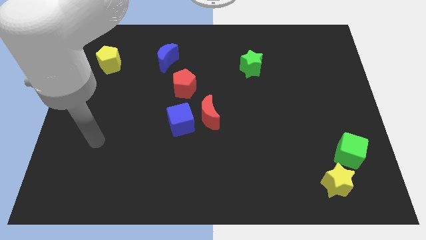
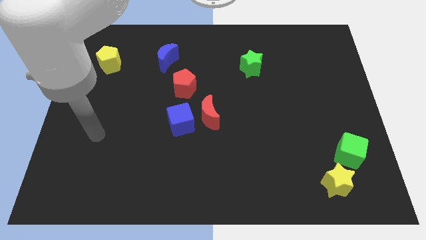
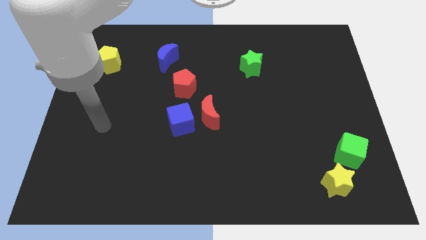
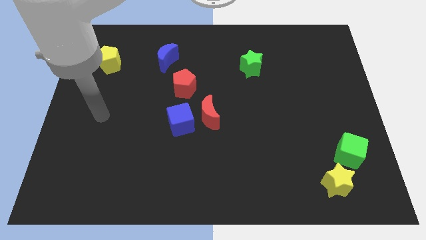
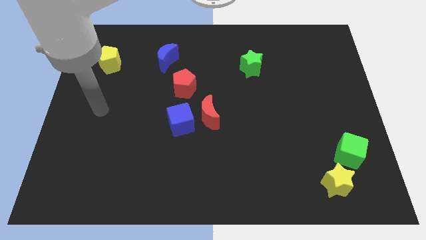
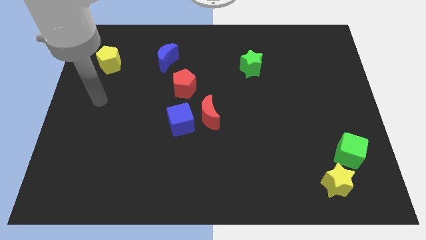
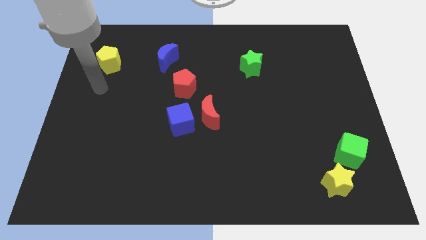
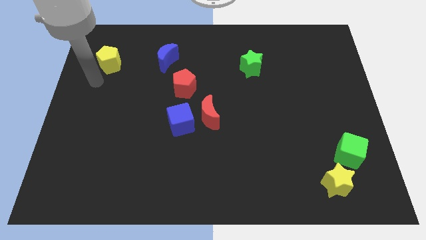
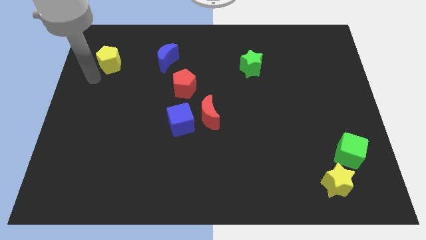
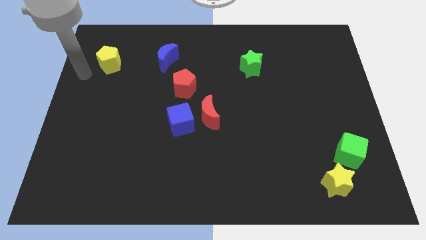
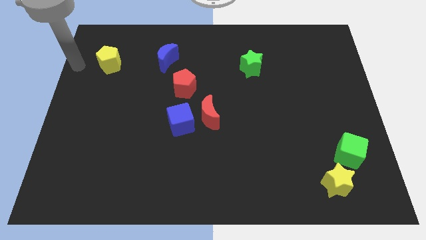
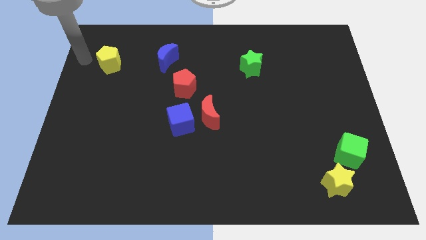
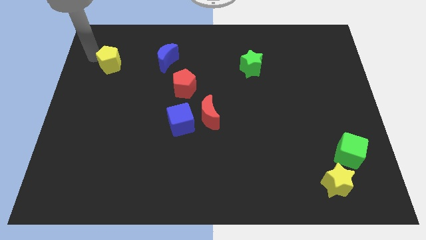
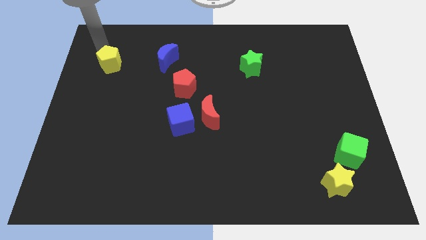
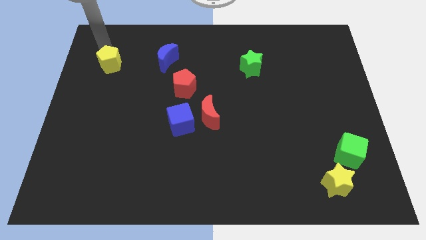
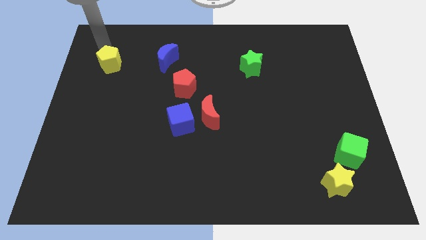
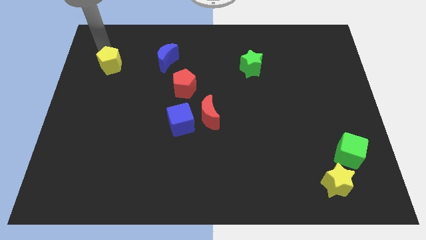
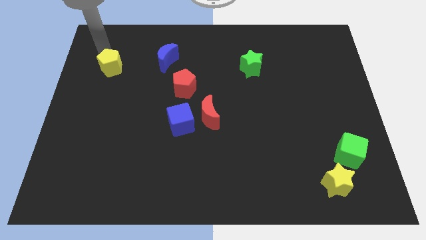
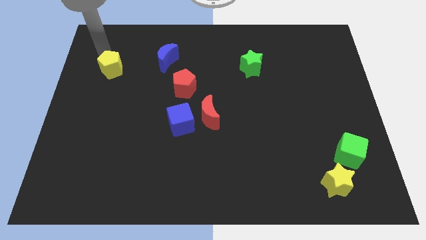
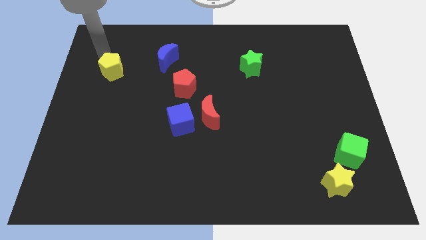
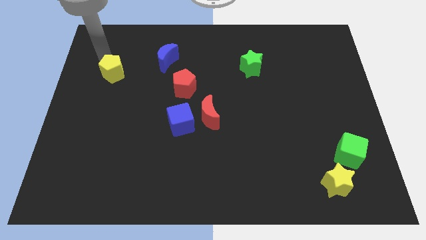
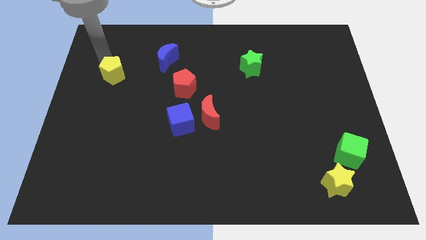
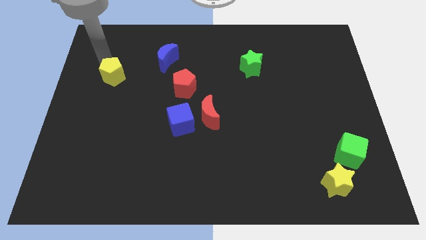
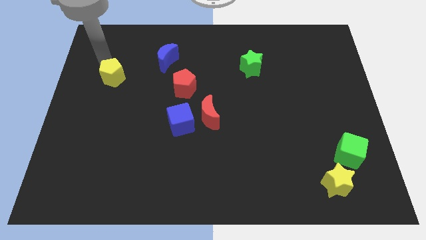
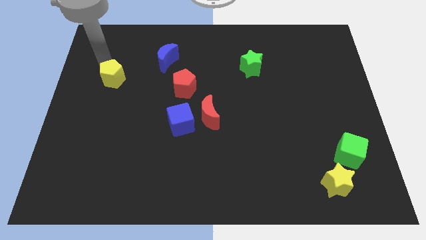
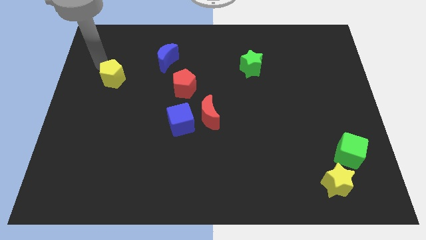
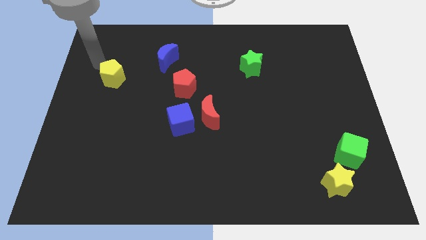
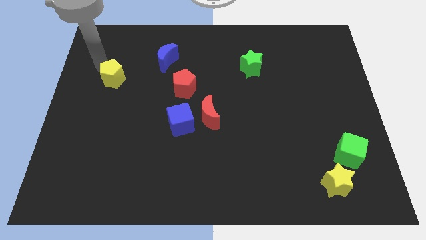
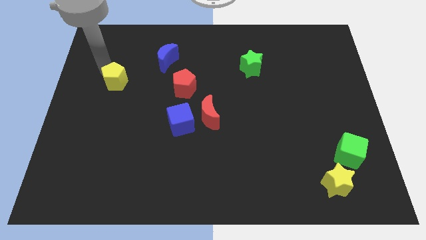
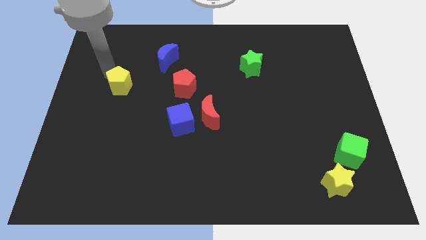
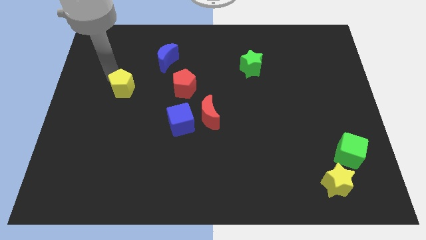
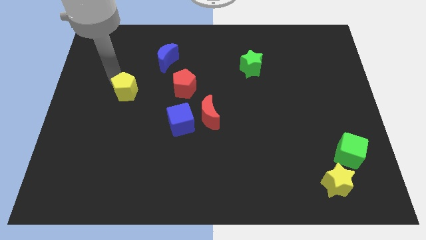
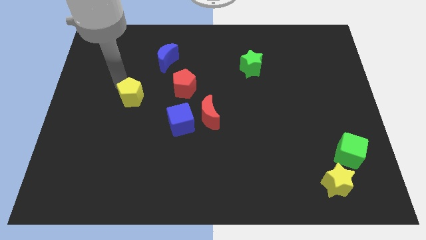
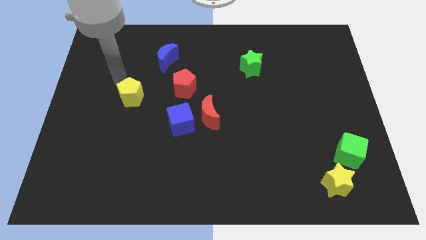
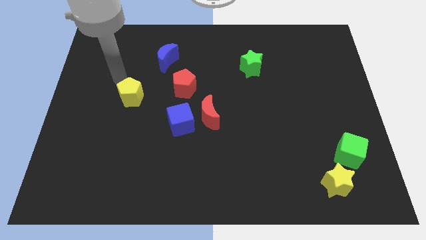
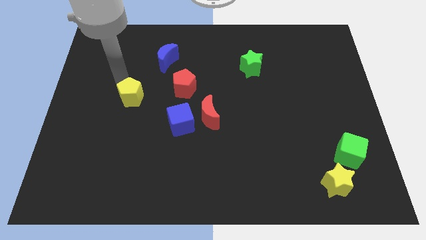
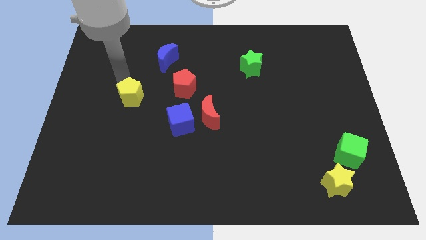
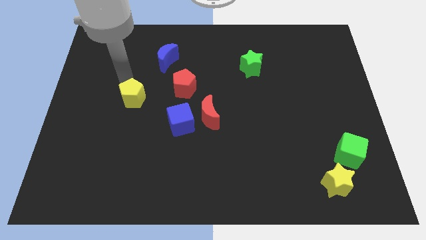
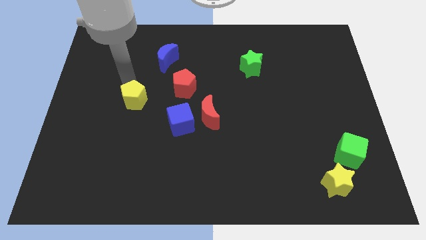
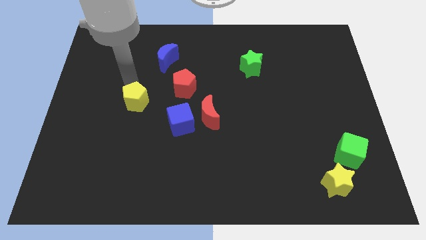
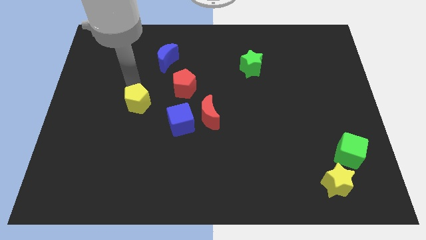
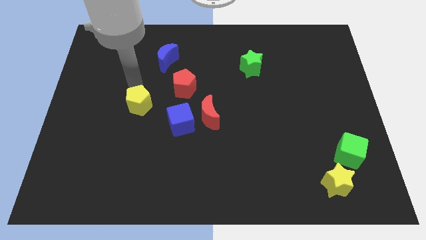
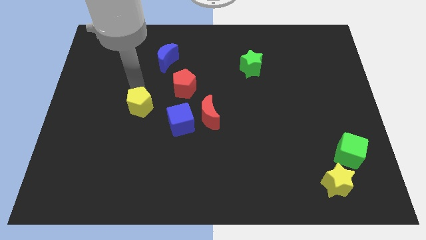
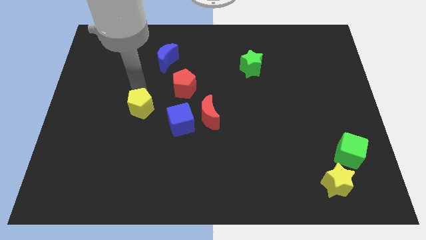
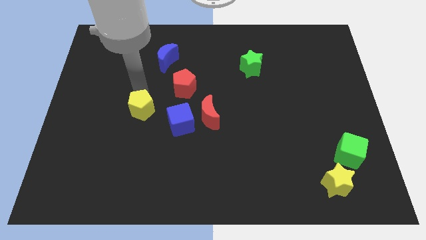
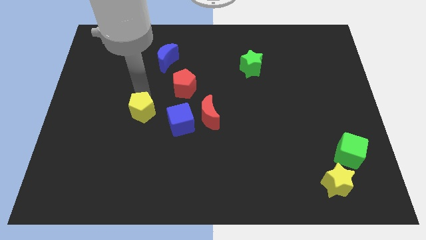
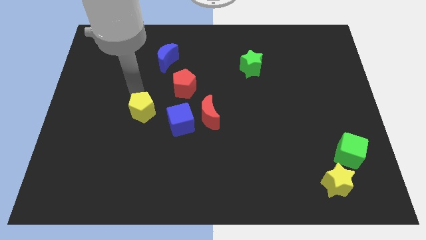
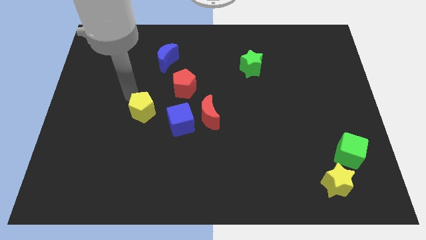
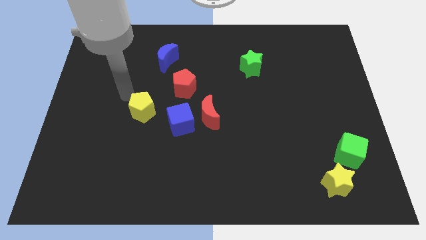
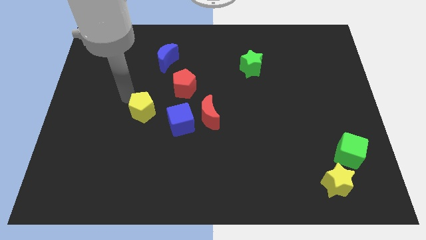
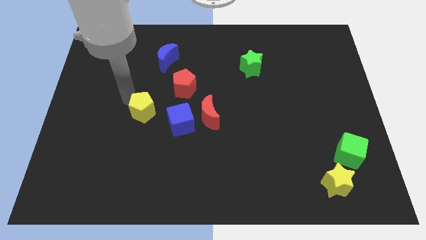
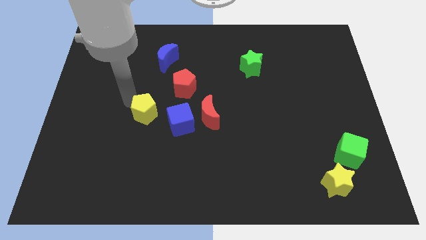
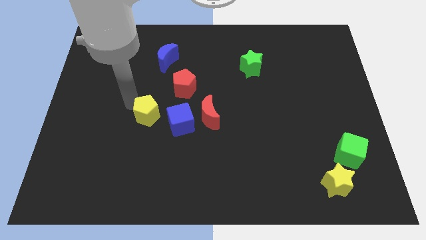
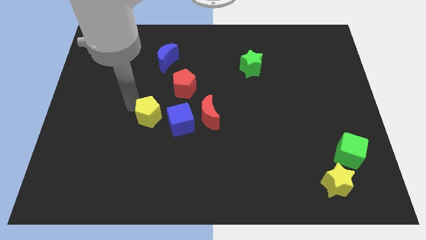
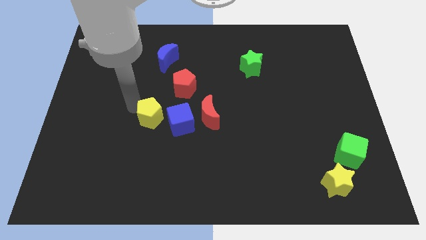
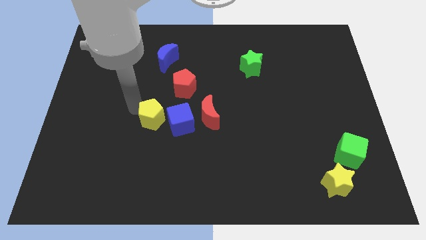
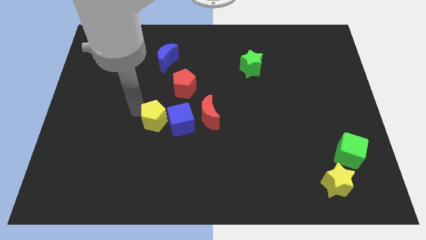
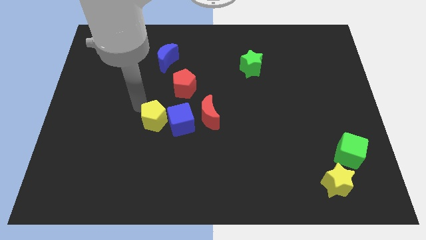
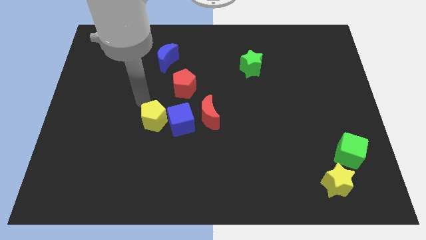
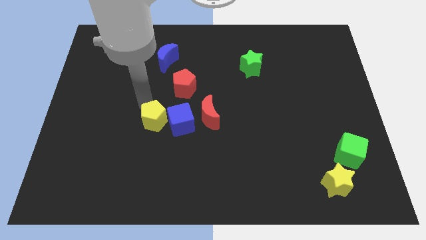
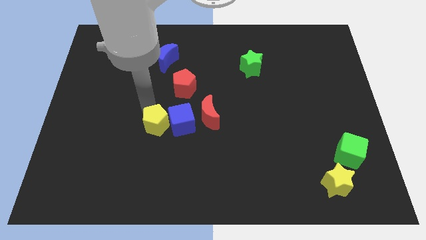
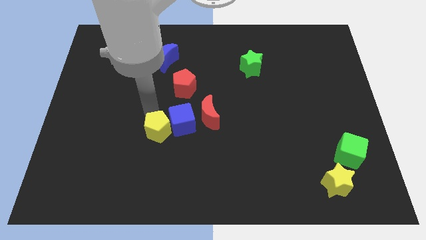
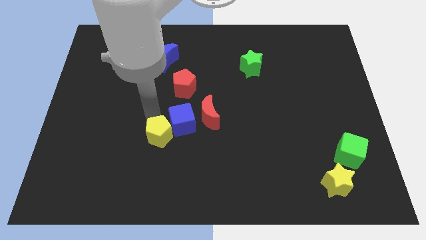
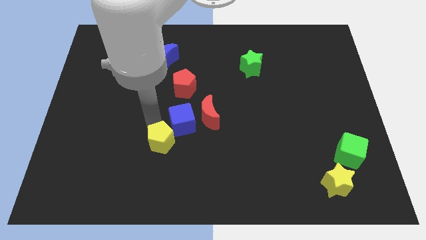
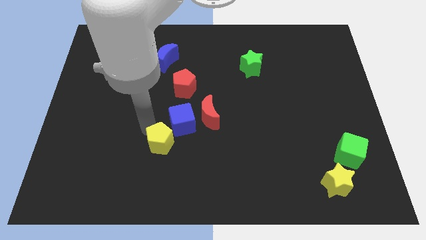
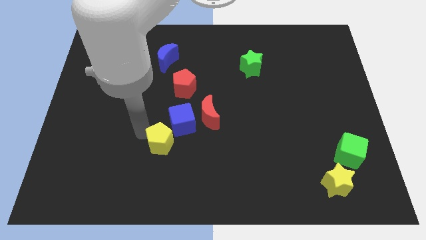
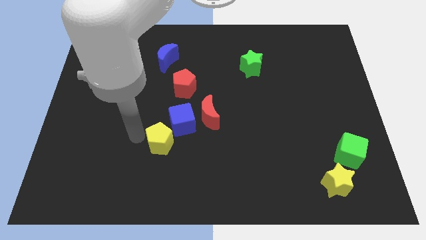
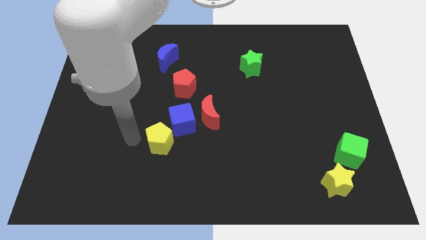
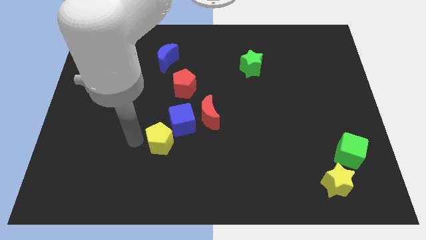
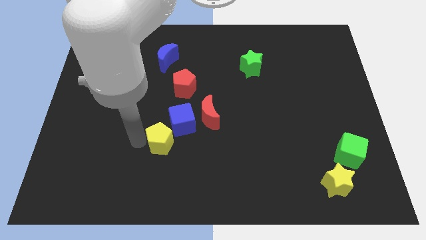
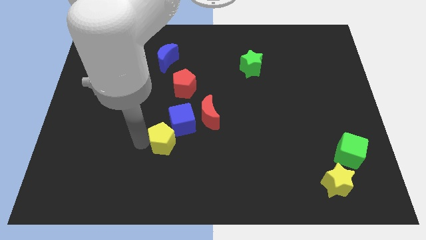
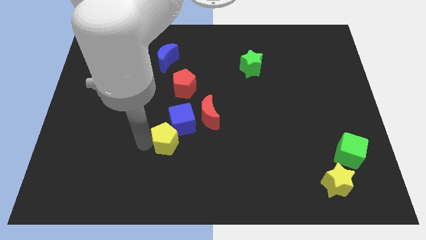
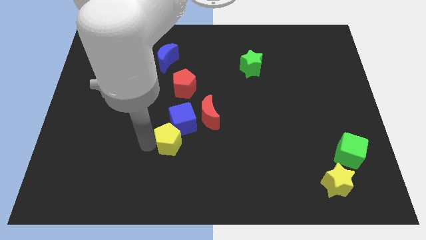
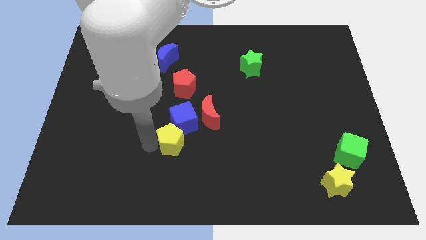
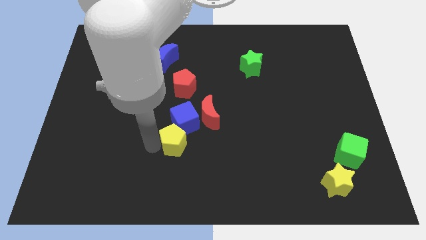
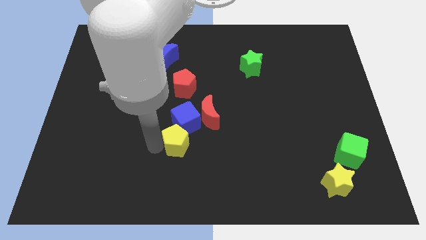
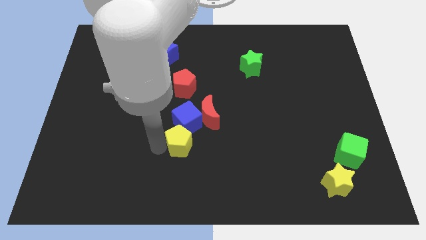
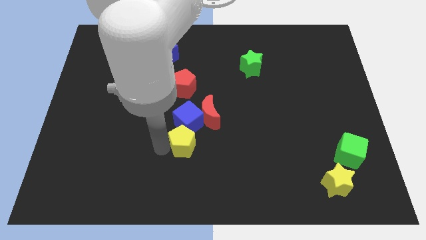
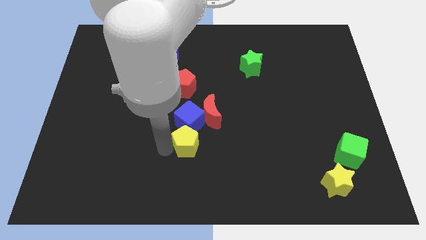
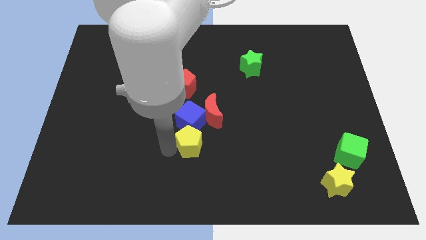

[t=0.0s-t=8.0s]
put the yellow pentagon below the red moon
